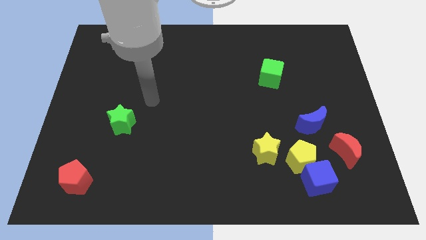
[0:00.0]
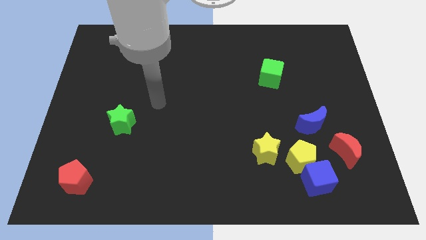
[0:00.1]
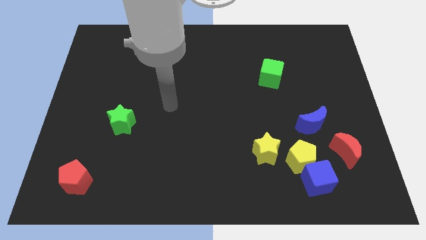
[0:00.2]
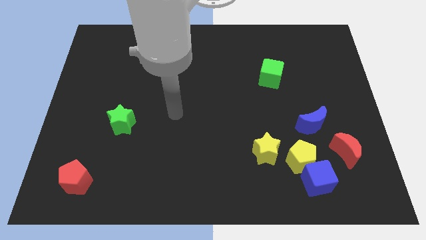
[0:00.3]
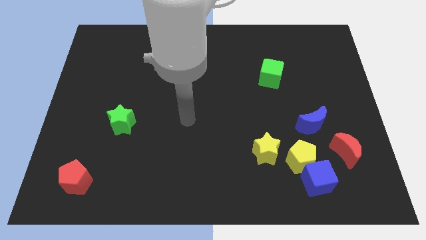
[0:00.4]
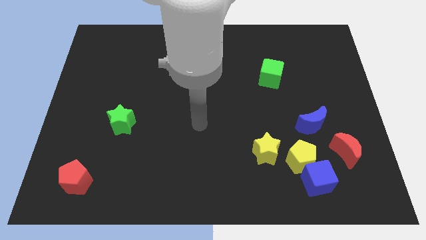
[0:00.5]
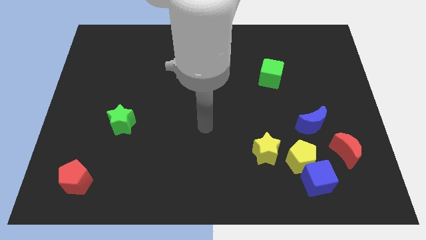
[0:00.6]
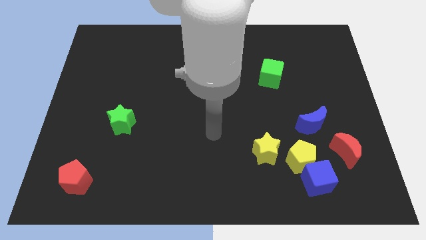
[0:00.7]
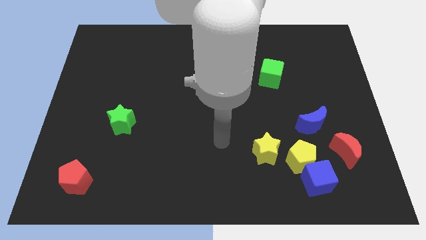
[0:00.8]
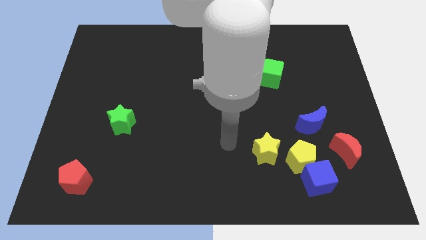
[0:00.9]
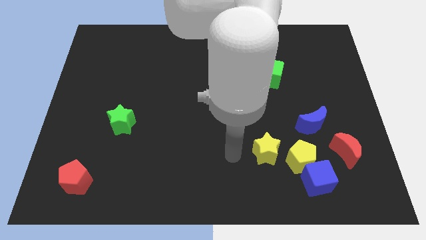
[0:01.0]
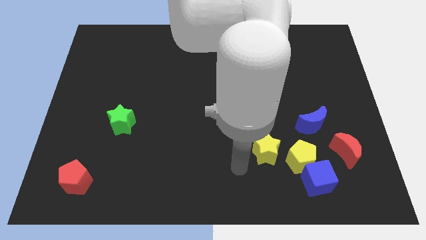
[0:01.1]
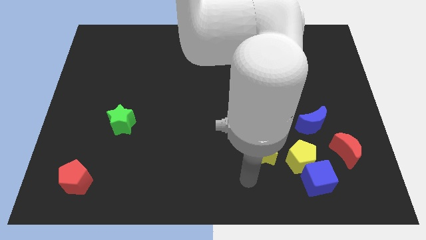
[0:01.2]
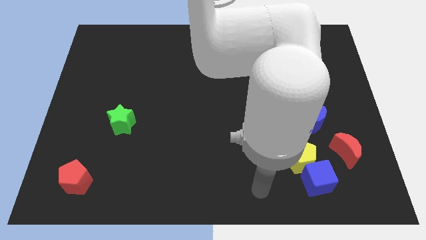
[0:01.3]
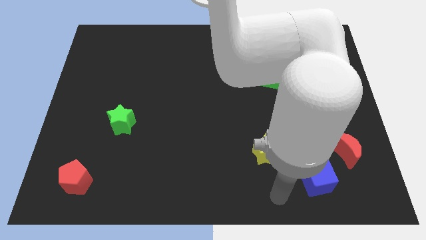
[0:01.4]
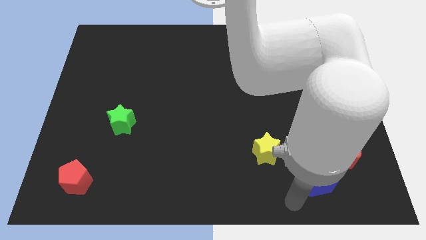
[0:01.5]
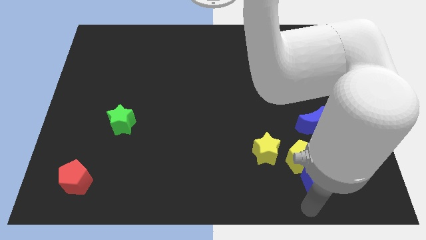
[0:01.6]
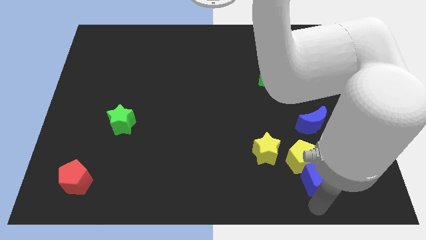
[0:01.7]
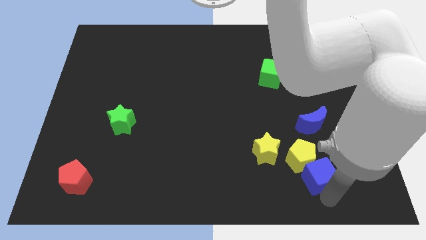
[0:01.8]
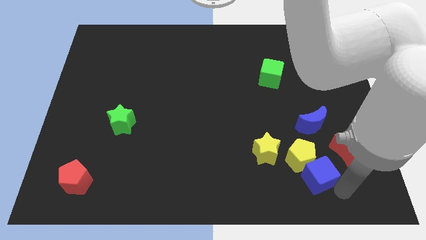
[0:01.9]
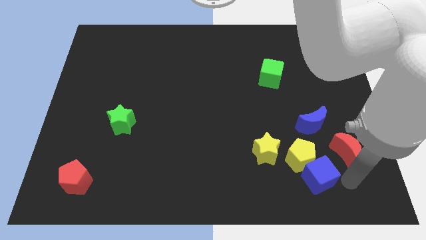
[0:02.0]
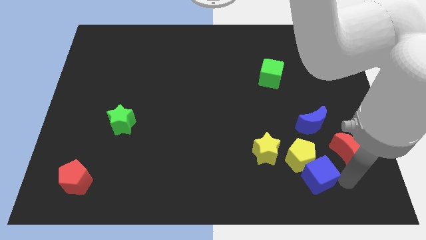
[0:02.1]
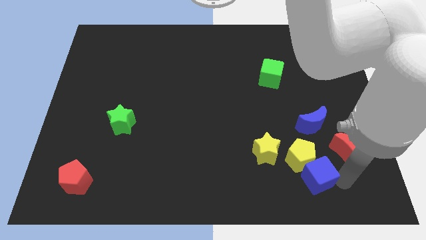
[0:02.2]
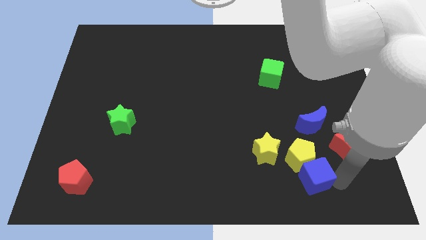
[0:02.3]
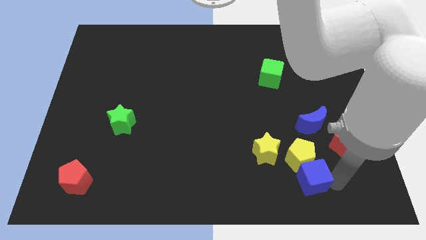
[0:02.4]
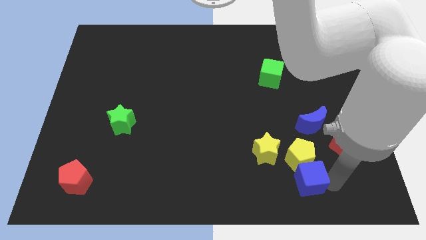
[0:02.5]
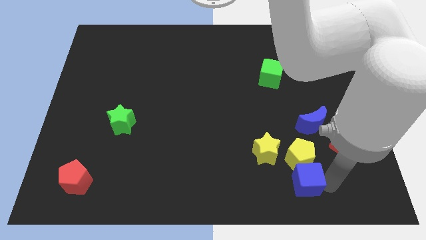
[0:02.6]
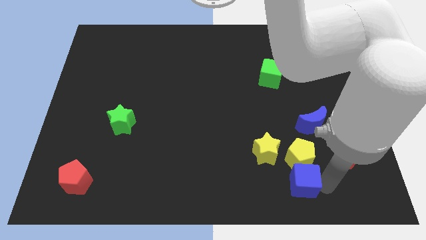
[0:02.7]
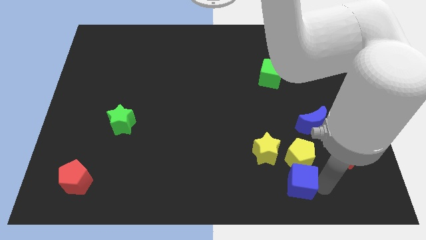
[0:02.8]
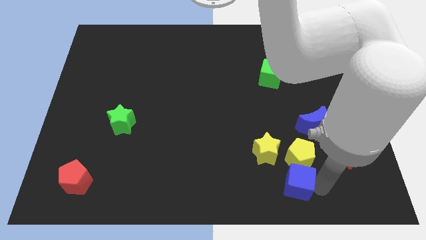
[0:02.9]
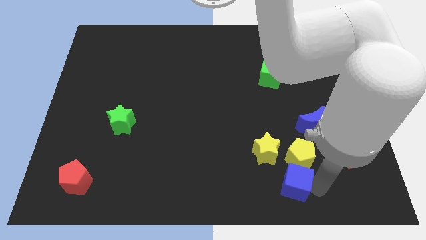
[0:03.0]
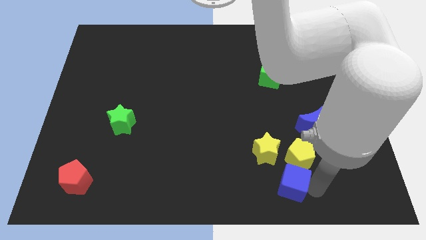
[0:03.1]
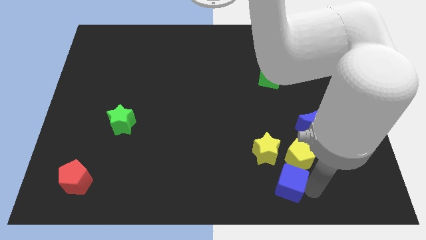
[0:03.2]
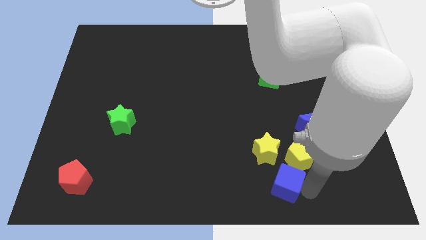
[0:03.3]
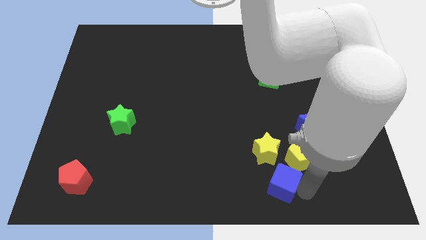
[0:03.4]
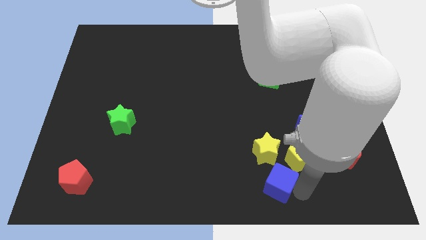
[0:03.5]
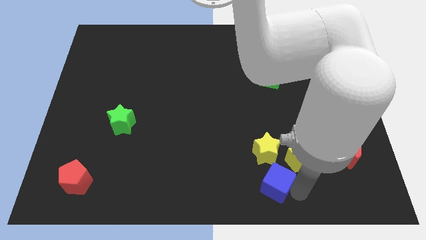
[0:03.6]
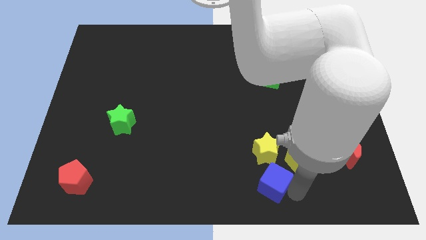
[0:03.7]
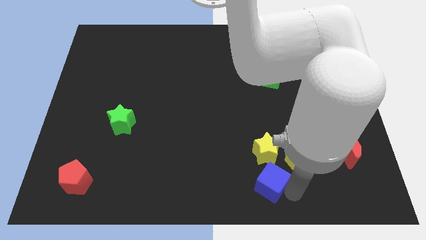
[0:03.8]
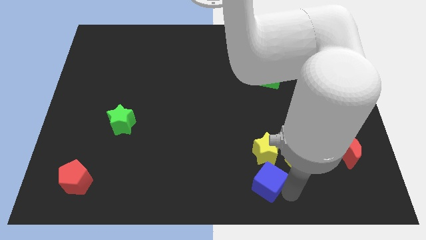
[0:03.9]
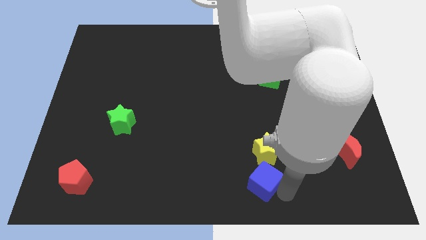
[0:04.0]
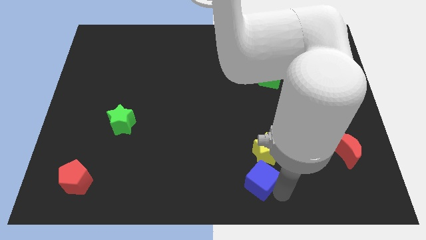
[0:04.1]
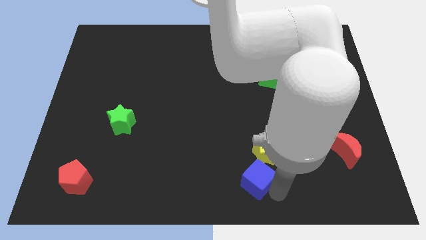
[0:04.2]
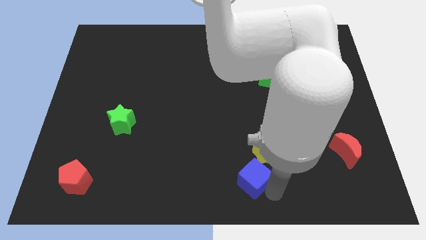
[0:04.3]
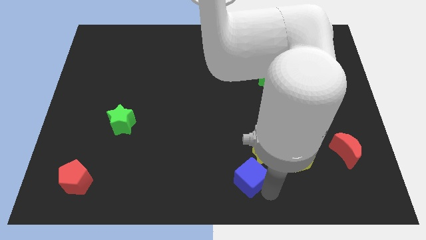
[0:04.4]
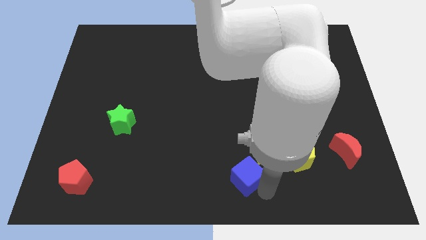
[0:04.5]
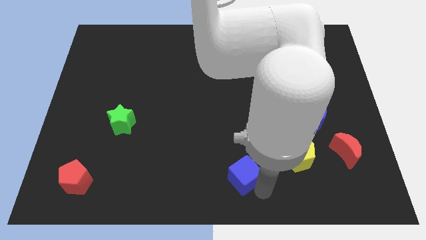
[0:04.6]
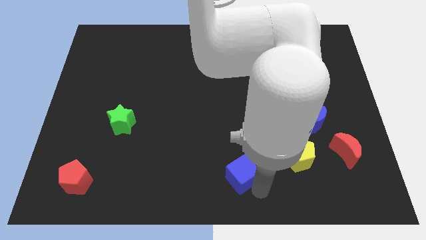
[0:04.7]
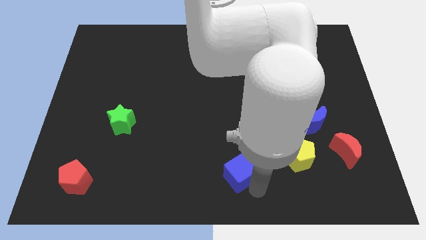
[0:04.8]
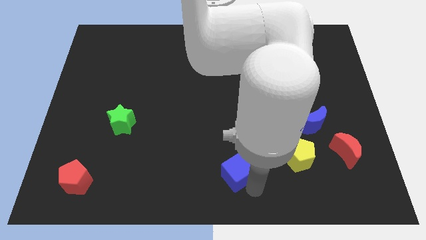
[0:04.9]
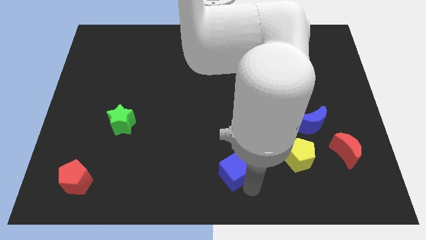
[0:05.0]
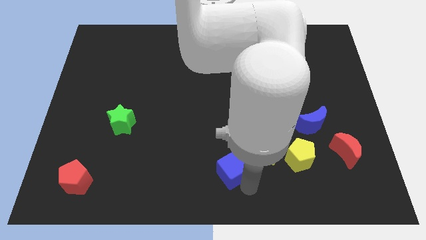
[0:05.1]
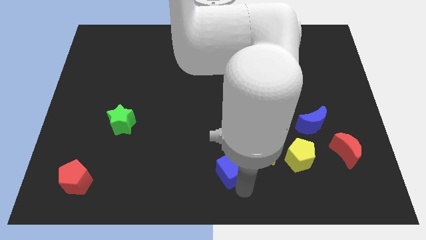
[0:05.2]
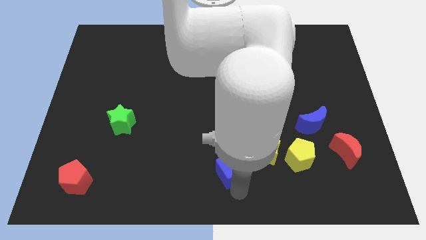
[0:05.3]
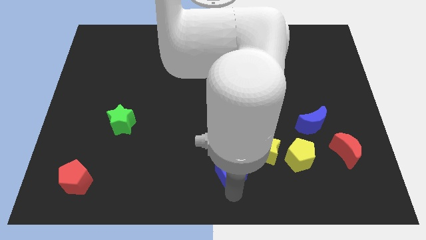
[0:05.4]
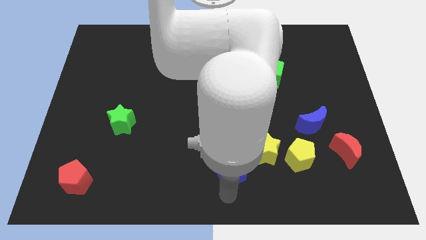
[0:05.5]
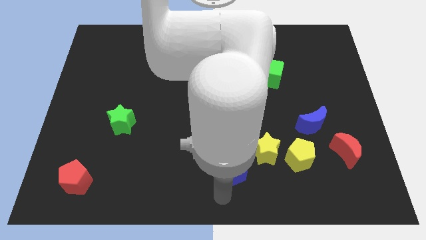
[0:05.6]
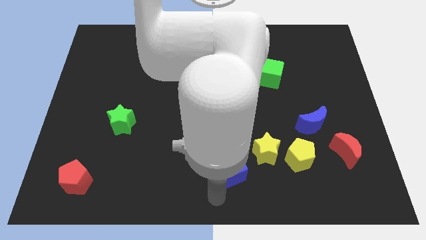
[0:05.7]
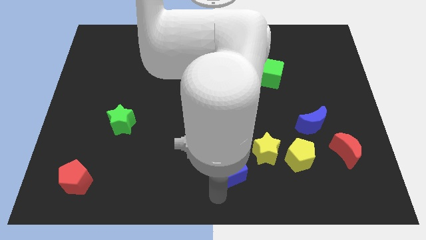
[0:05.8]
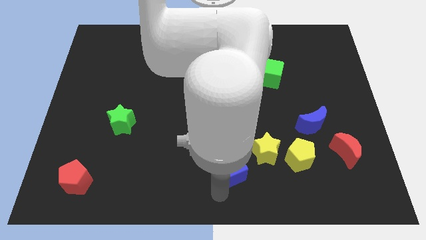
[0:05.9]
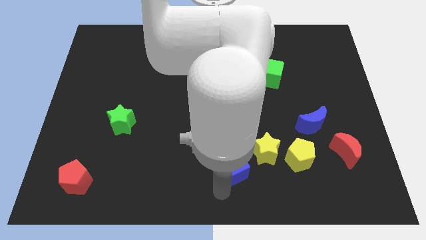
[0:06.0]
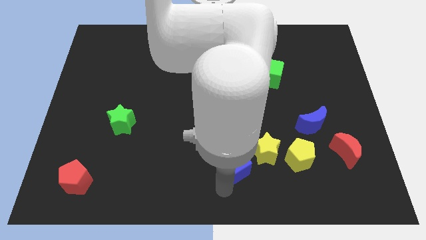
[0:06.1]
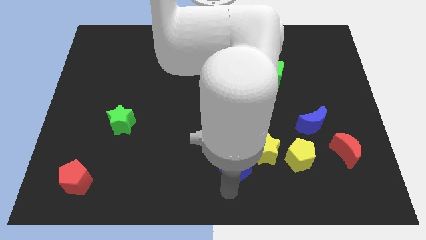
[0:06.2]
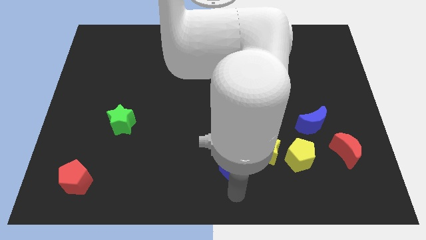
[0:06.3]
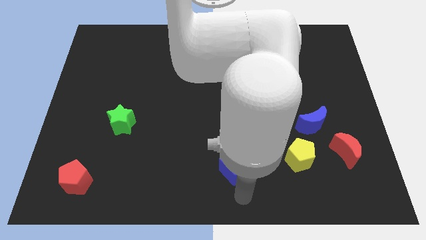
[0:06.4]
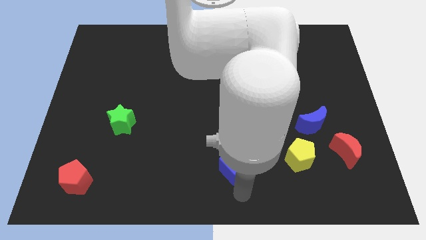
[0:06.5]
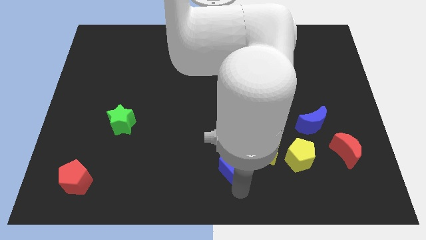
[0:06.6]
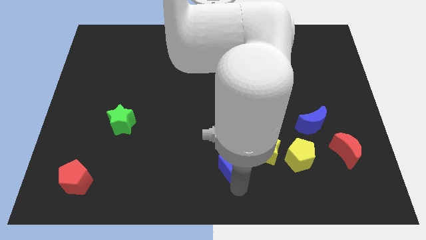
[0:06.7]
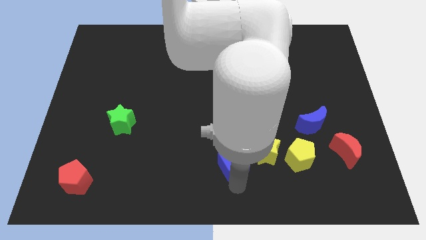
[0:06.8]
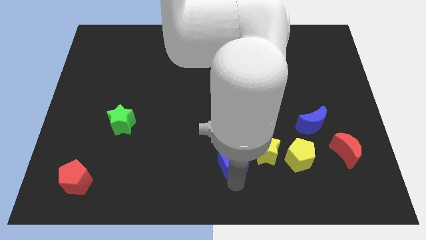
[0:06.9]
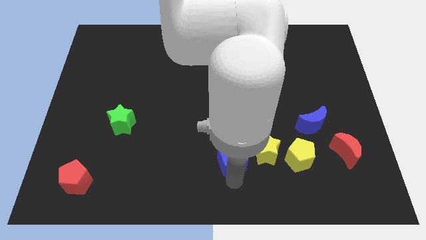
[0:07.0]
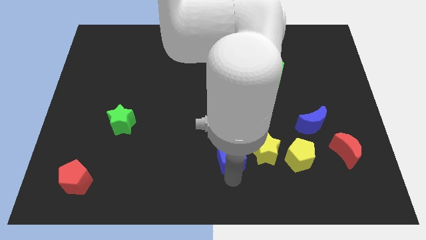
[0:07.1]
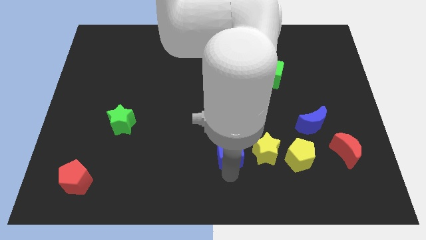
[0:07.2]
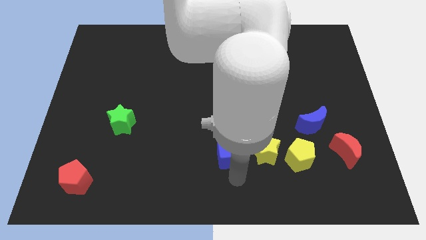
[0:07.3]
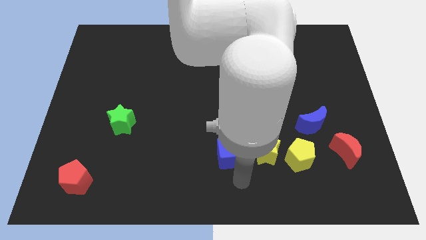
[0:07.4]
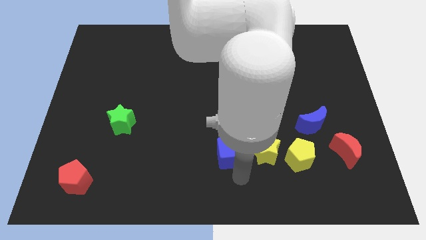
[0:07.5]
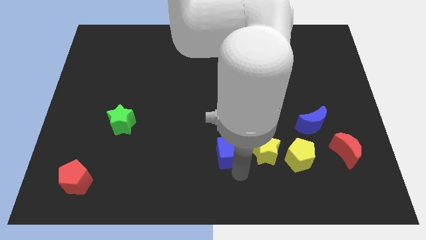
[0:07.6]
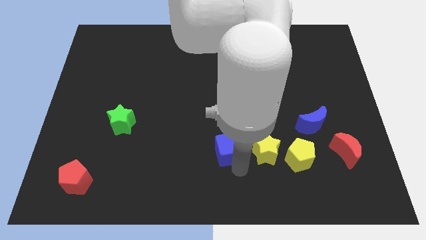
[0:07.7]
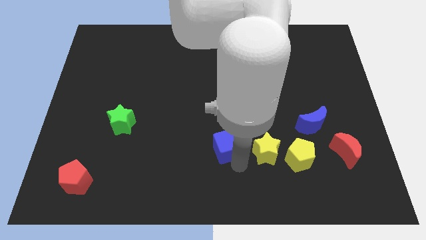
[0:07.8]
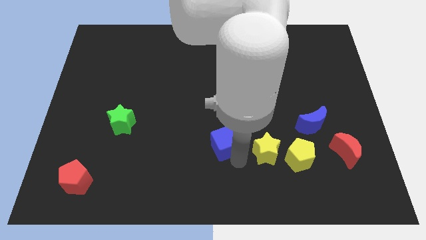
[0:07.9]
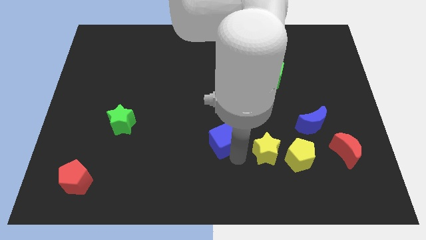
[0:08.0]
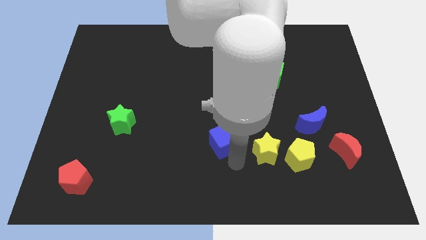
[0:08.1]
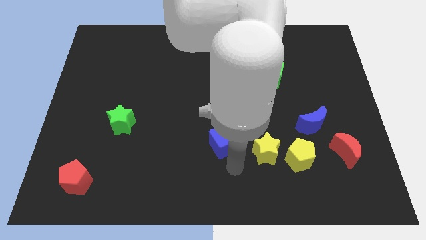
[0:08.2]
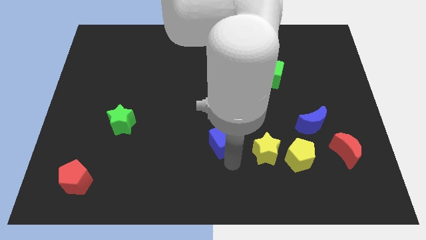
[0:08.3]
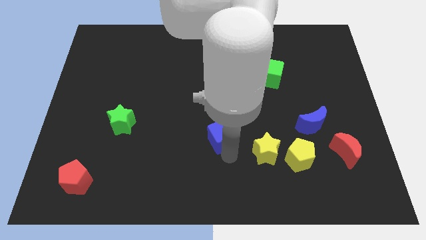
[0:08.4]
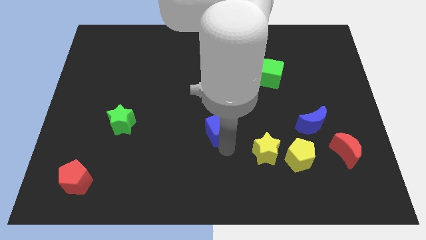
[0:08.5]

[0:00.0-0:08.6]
push the blue cube diagonally up and to the left
